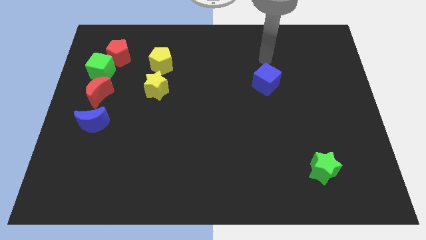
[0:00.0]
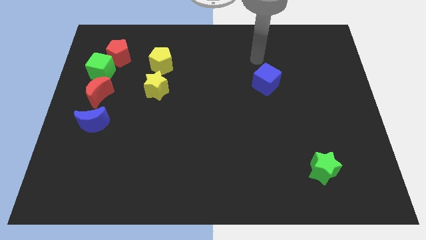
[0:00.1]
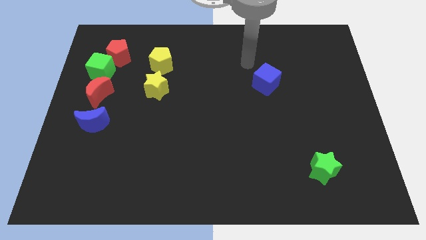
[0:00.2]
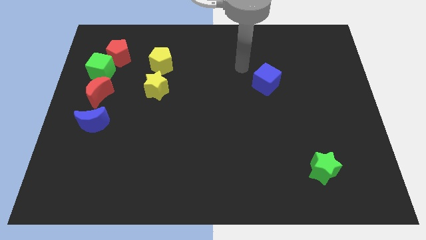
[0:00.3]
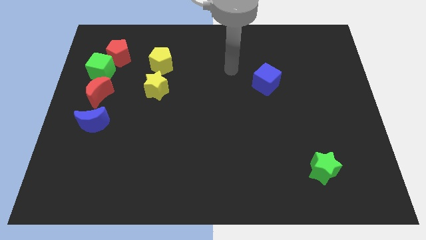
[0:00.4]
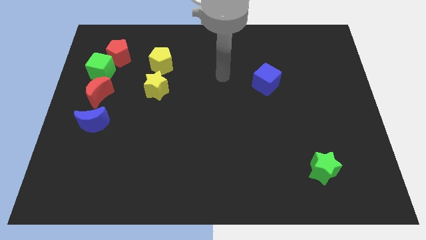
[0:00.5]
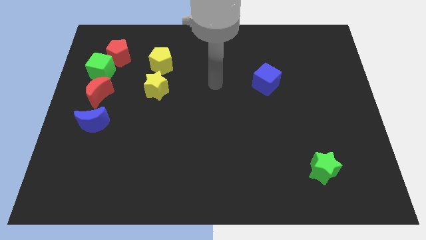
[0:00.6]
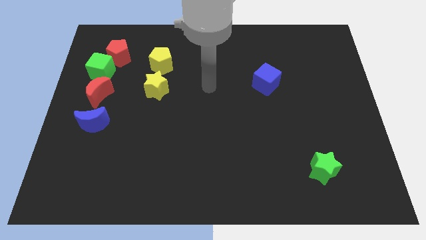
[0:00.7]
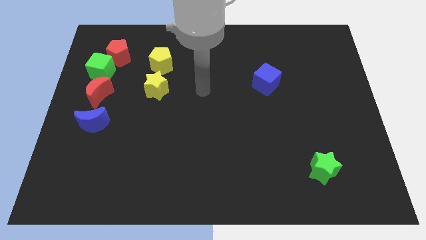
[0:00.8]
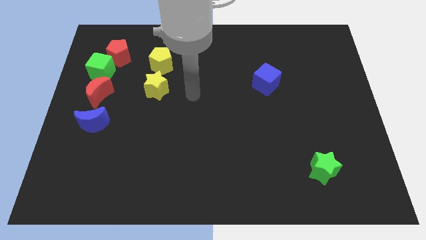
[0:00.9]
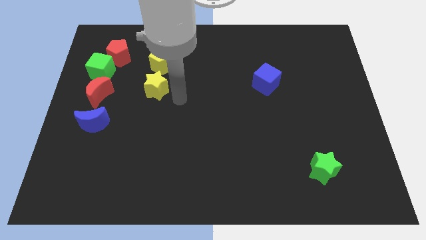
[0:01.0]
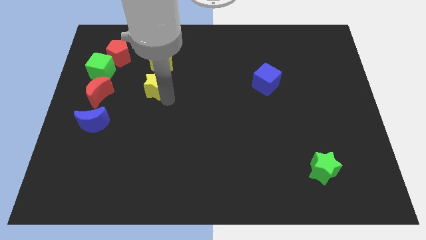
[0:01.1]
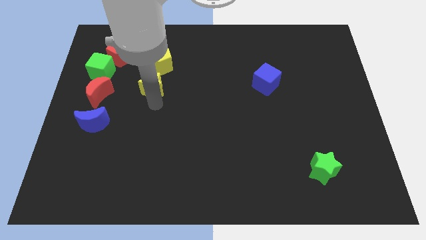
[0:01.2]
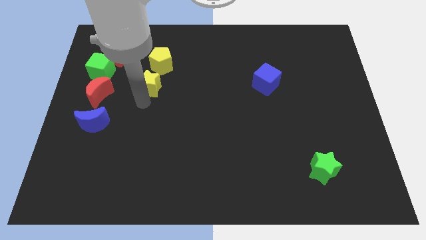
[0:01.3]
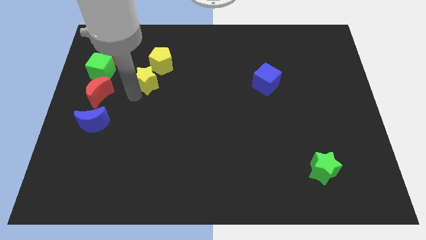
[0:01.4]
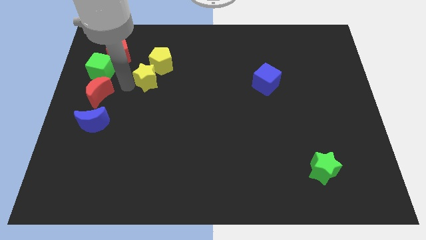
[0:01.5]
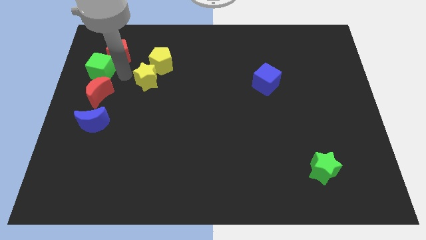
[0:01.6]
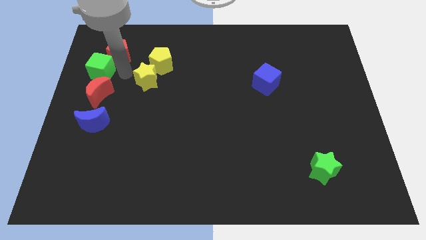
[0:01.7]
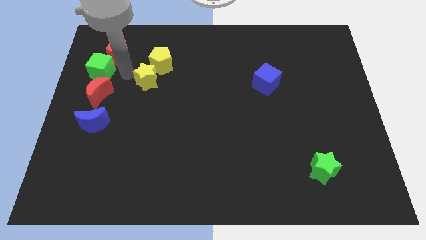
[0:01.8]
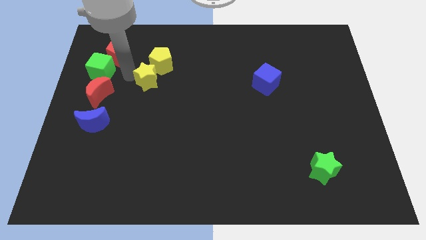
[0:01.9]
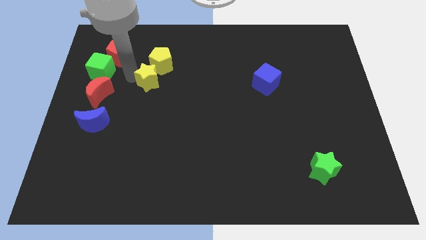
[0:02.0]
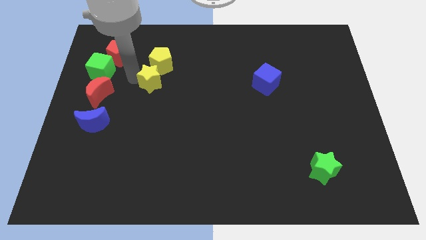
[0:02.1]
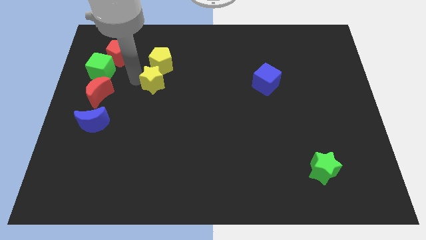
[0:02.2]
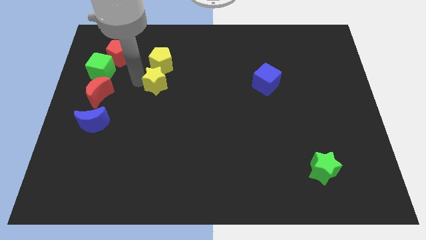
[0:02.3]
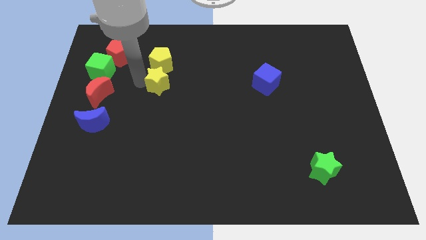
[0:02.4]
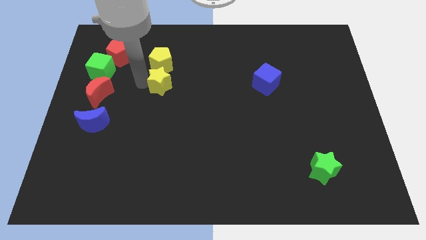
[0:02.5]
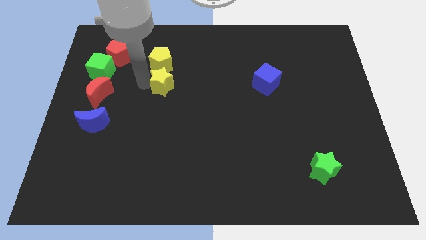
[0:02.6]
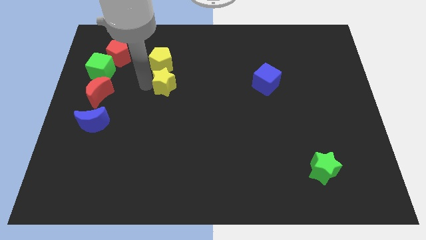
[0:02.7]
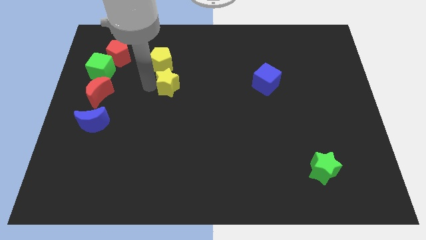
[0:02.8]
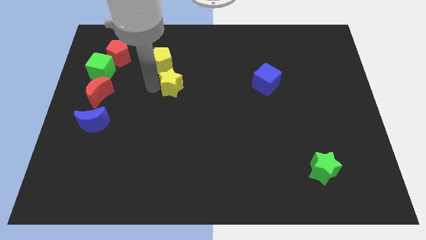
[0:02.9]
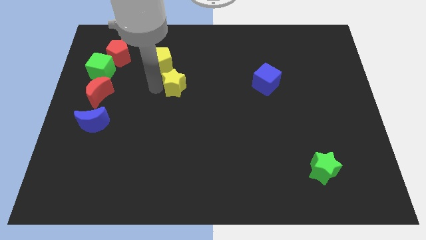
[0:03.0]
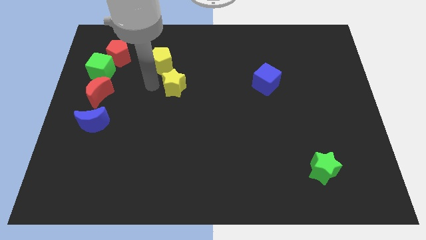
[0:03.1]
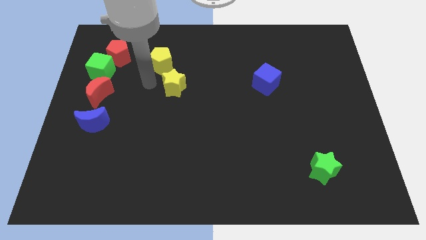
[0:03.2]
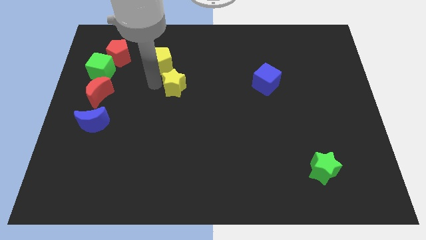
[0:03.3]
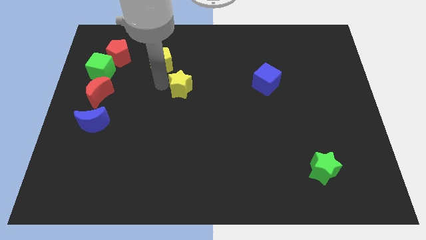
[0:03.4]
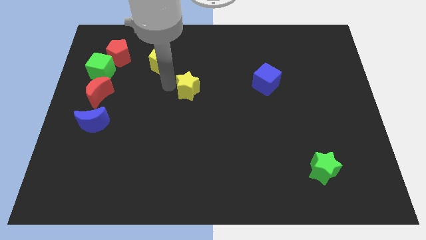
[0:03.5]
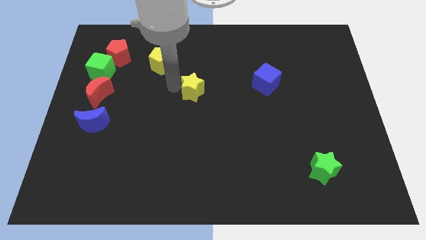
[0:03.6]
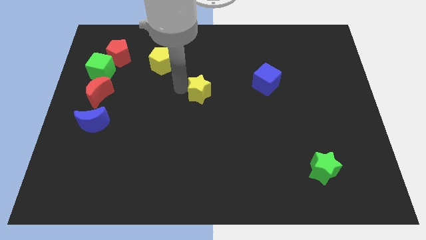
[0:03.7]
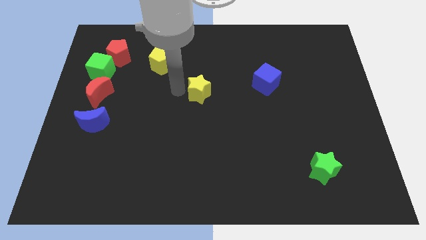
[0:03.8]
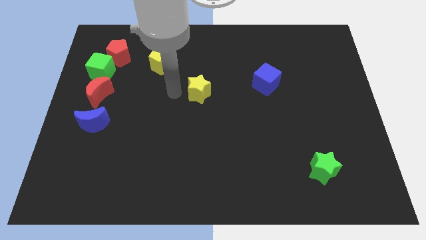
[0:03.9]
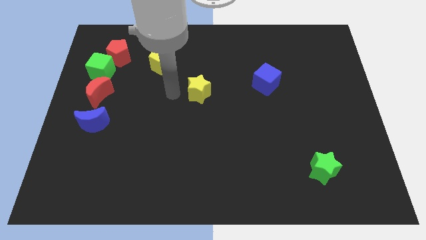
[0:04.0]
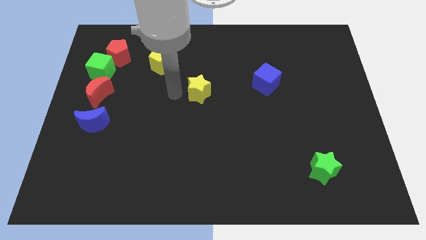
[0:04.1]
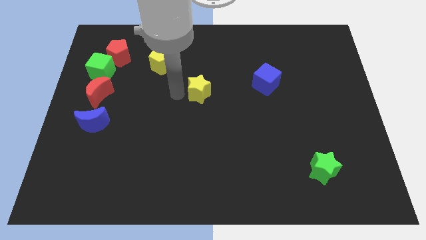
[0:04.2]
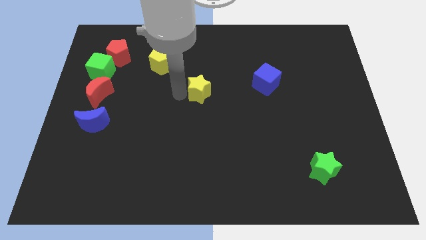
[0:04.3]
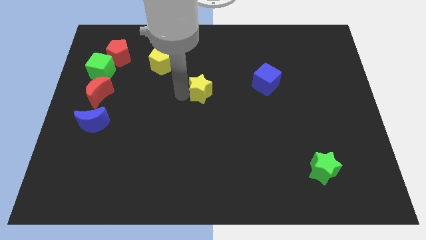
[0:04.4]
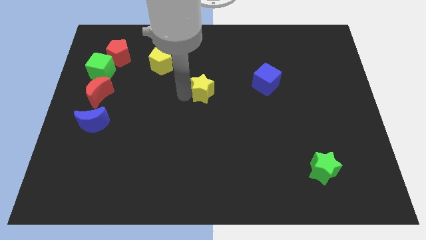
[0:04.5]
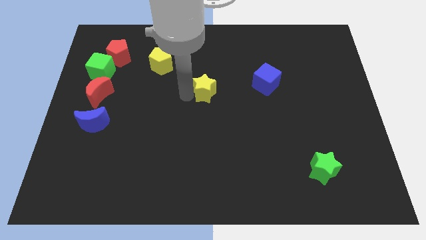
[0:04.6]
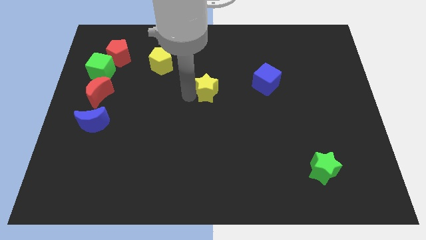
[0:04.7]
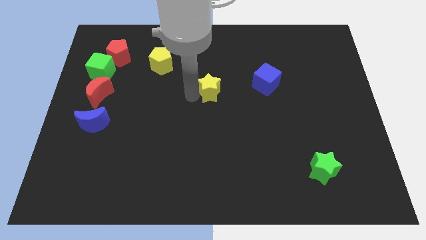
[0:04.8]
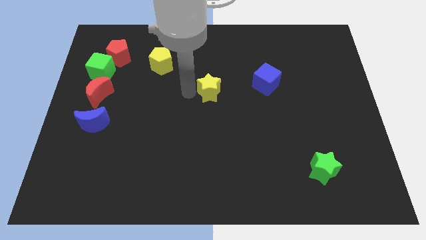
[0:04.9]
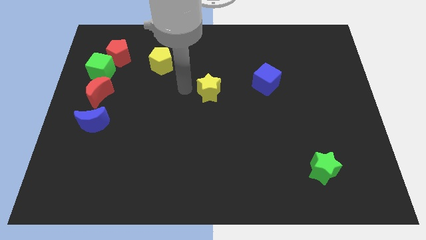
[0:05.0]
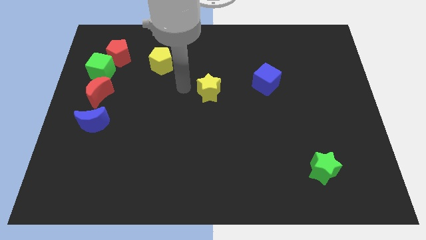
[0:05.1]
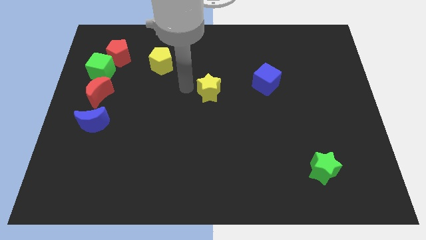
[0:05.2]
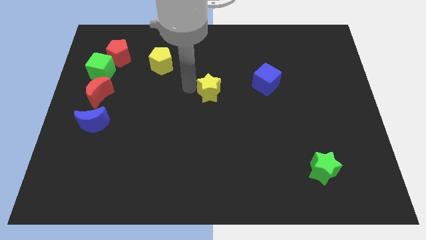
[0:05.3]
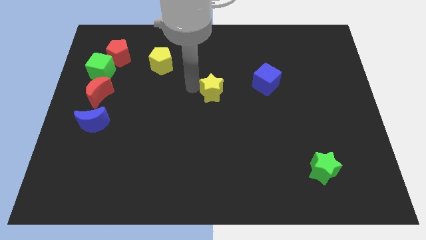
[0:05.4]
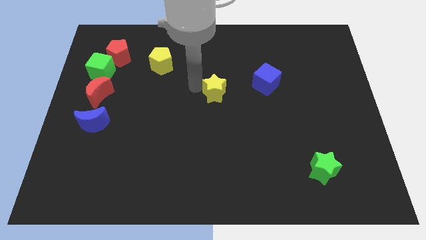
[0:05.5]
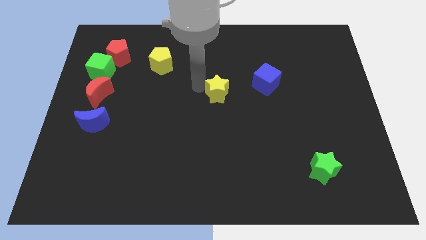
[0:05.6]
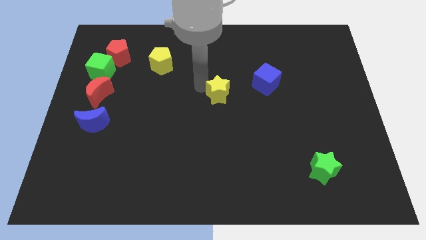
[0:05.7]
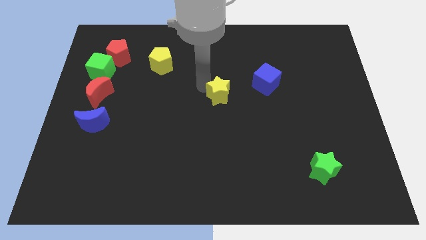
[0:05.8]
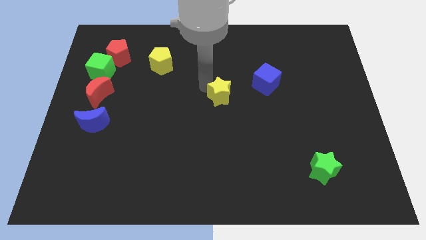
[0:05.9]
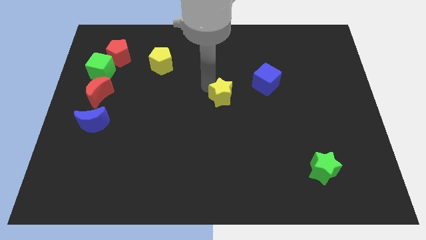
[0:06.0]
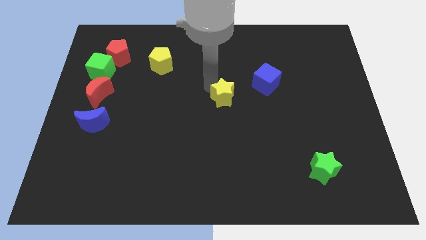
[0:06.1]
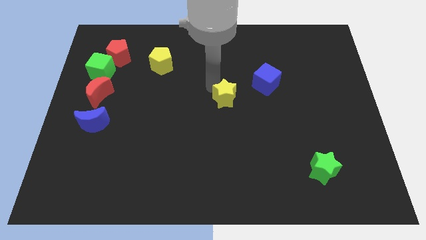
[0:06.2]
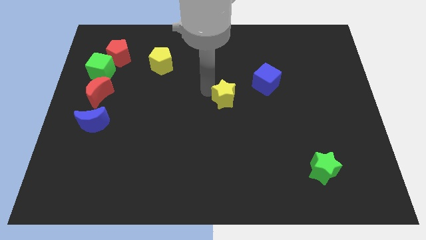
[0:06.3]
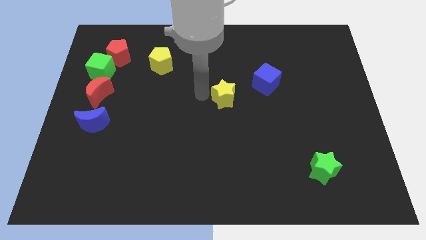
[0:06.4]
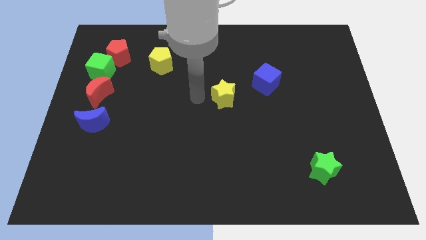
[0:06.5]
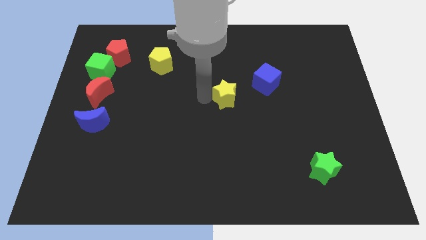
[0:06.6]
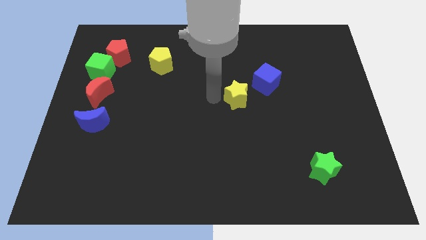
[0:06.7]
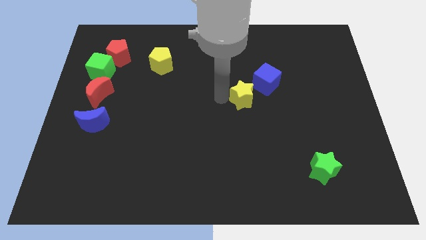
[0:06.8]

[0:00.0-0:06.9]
push the yellow star right

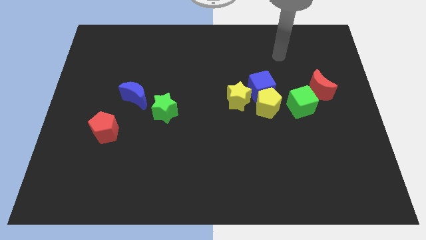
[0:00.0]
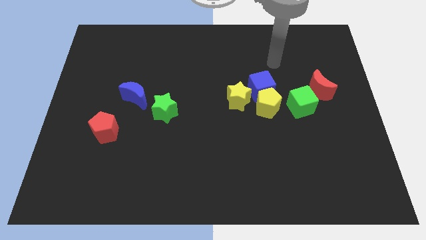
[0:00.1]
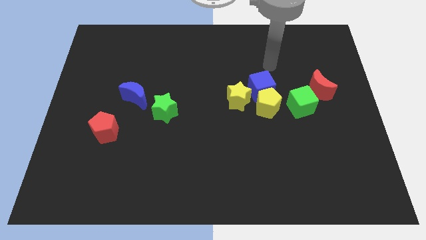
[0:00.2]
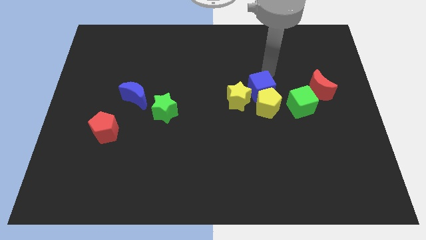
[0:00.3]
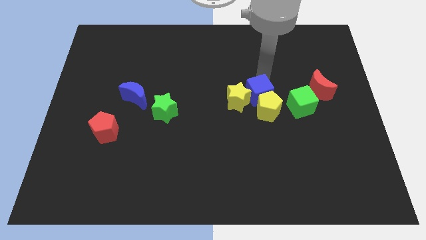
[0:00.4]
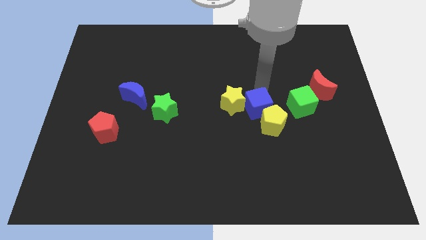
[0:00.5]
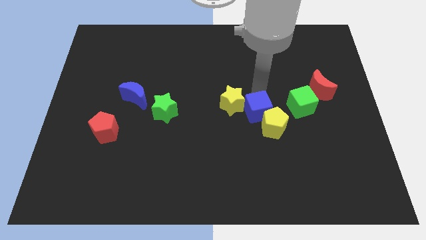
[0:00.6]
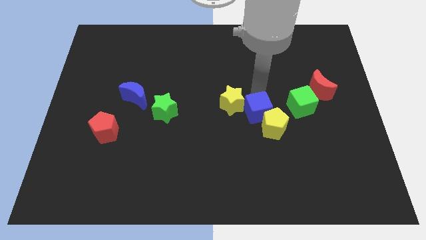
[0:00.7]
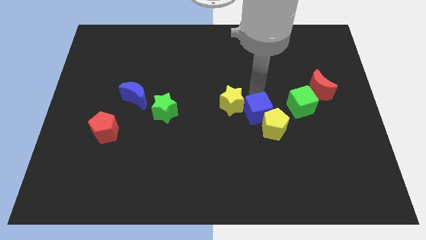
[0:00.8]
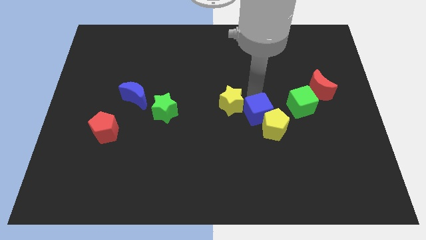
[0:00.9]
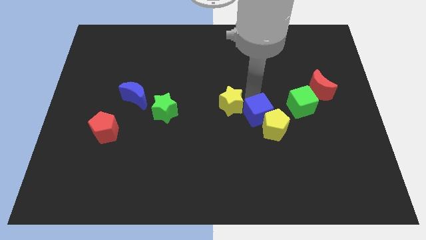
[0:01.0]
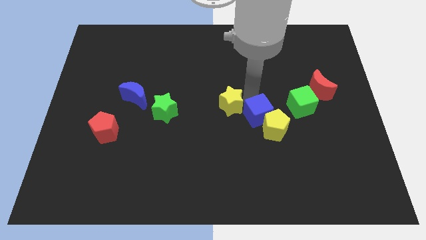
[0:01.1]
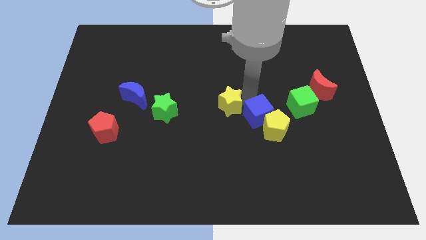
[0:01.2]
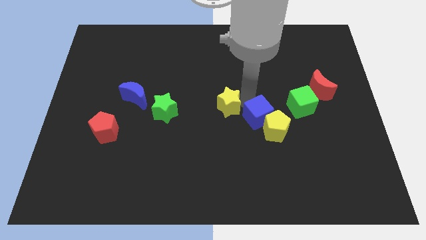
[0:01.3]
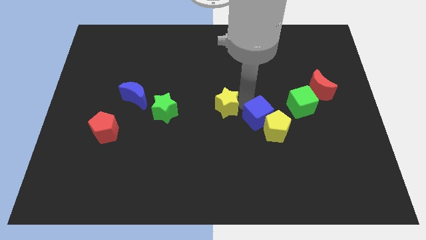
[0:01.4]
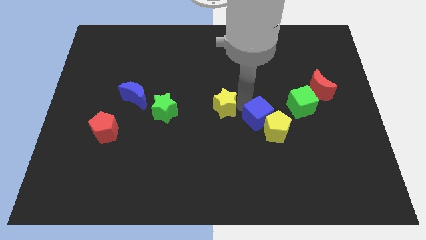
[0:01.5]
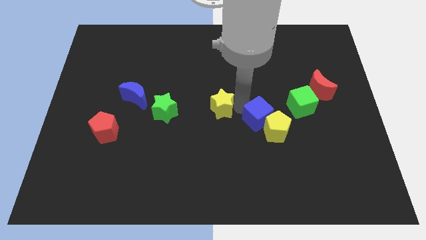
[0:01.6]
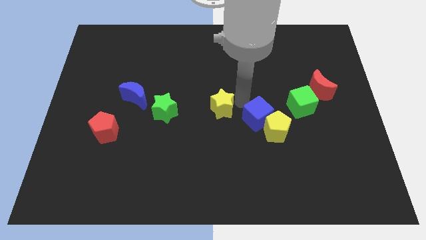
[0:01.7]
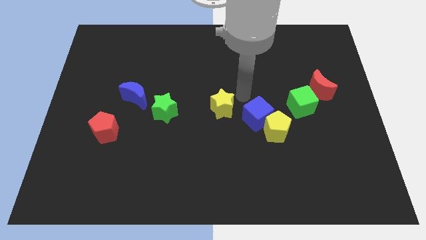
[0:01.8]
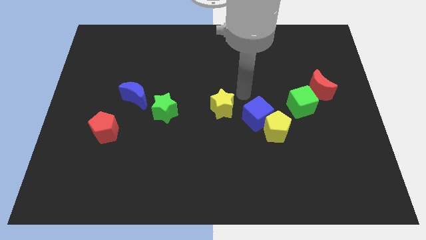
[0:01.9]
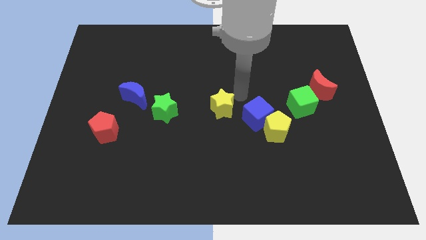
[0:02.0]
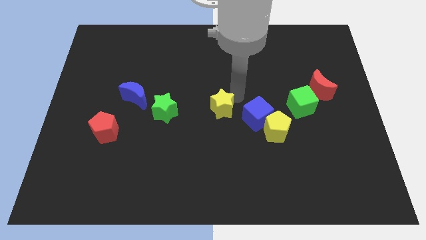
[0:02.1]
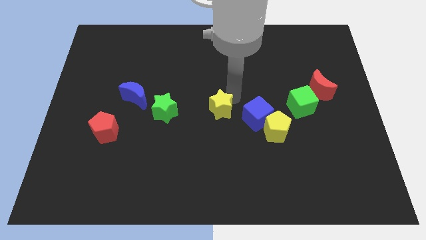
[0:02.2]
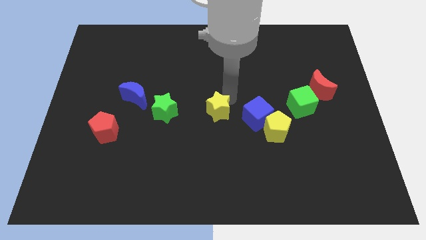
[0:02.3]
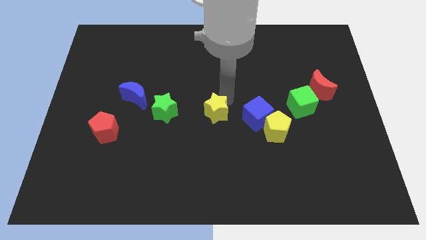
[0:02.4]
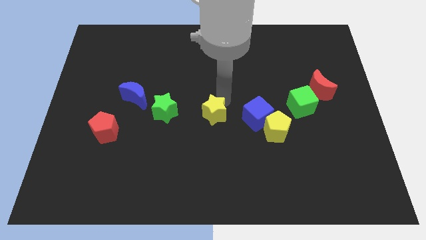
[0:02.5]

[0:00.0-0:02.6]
slightly move the yellow star downwards and then left
